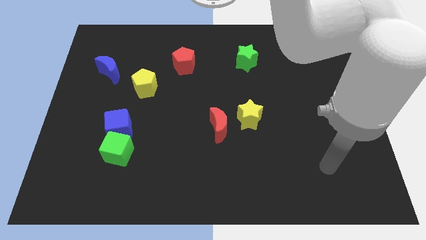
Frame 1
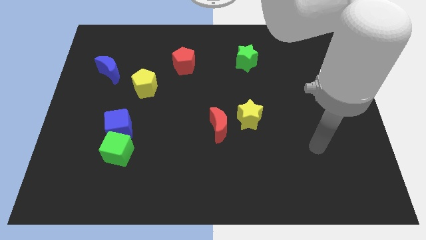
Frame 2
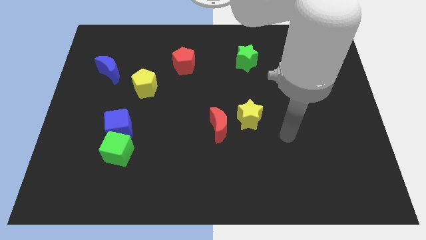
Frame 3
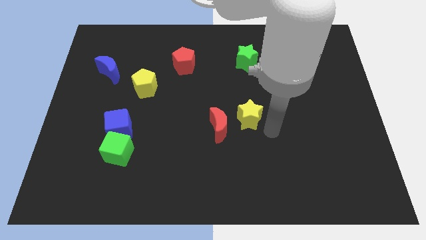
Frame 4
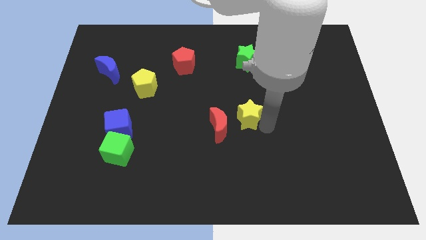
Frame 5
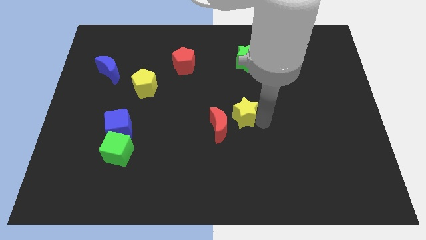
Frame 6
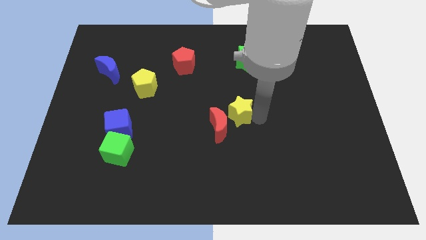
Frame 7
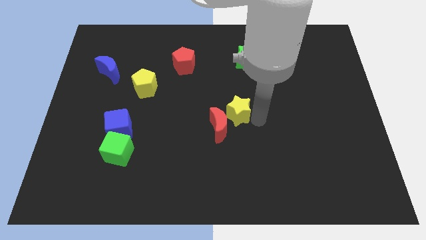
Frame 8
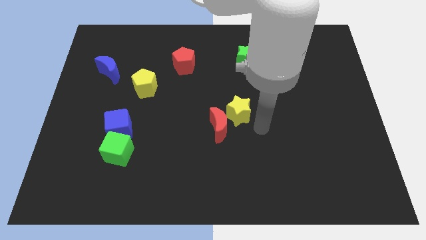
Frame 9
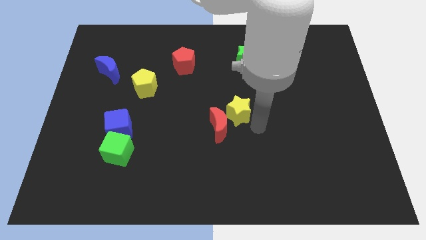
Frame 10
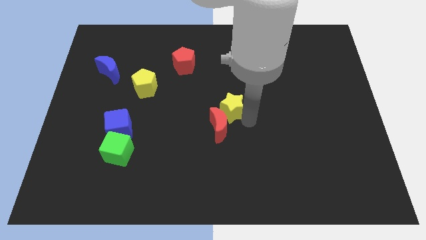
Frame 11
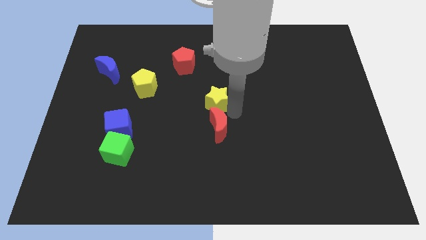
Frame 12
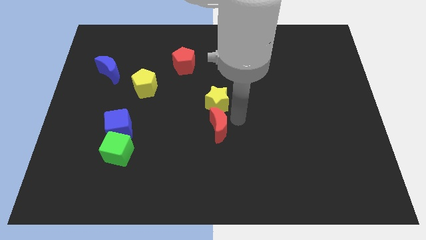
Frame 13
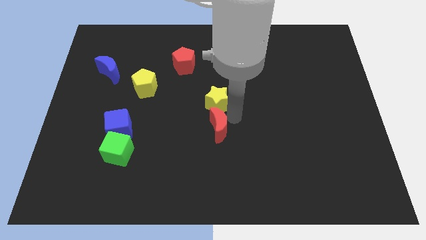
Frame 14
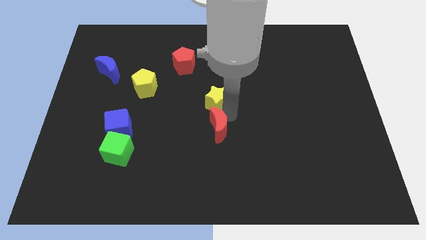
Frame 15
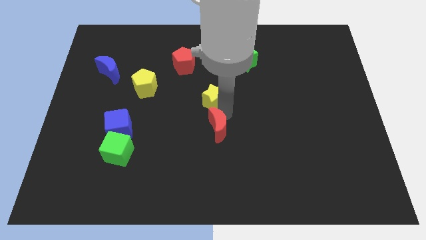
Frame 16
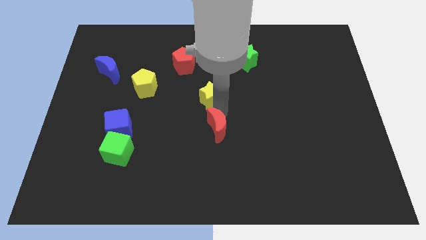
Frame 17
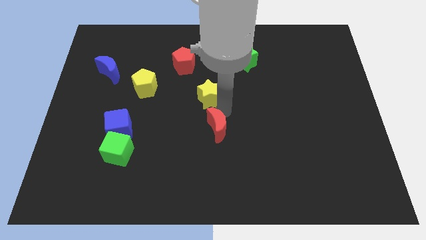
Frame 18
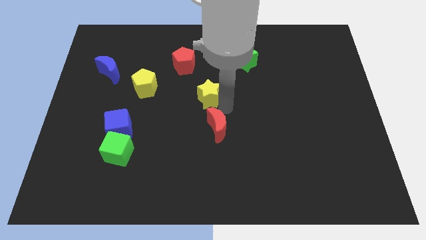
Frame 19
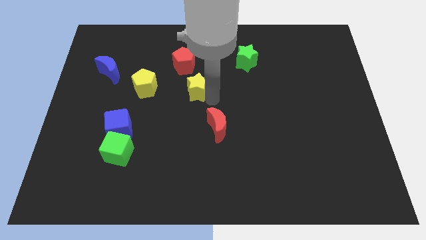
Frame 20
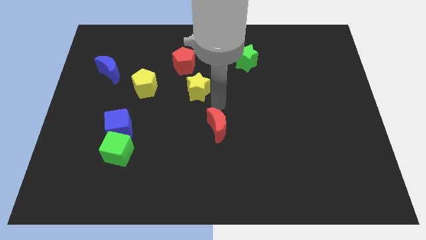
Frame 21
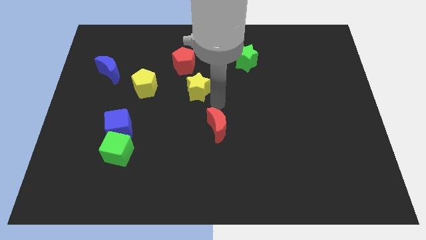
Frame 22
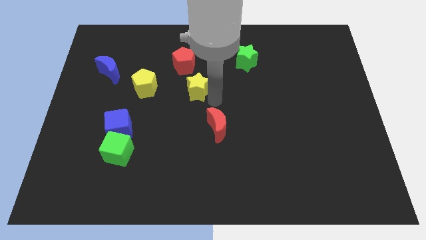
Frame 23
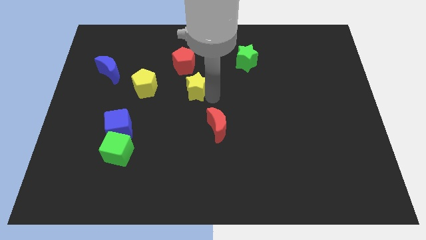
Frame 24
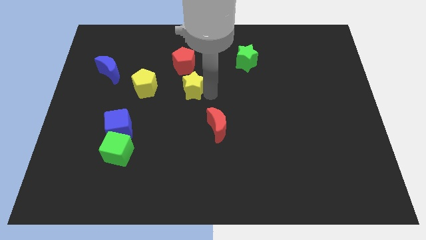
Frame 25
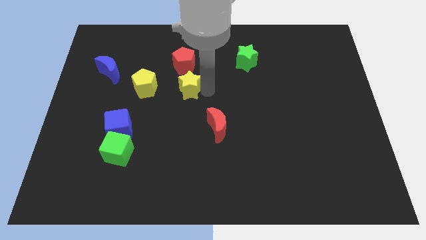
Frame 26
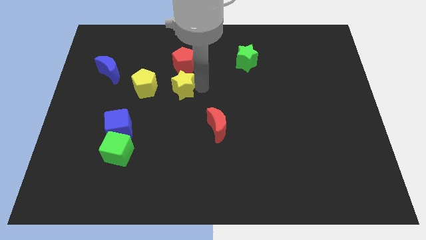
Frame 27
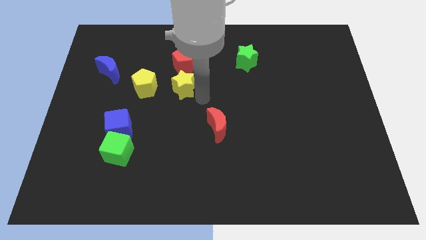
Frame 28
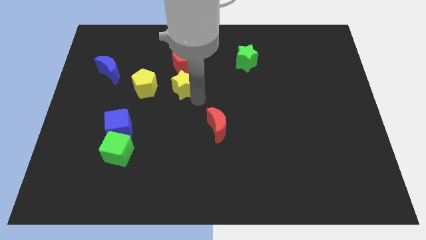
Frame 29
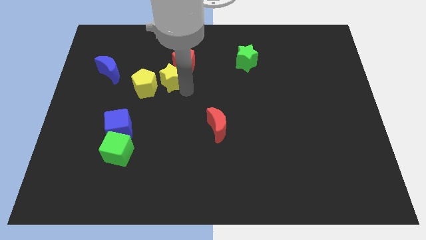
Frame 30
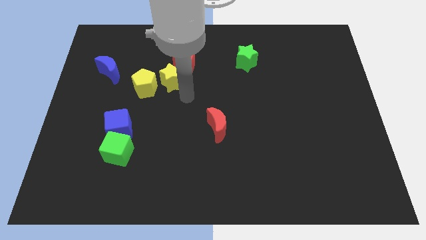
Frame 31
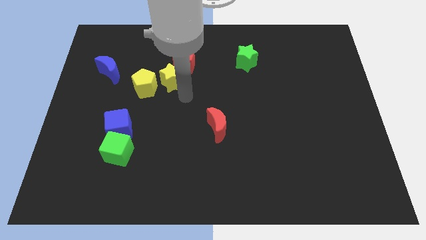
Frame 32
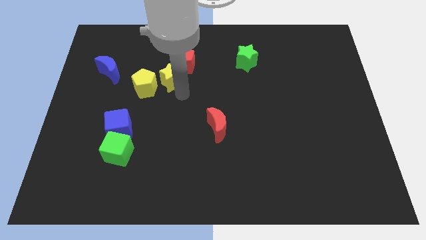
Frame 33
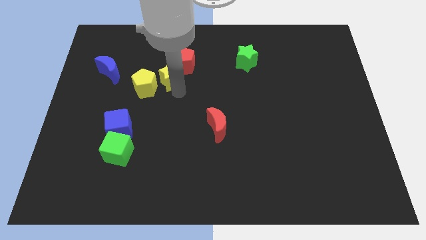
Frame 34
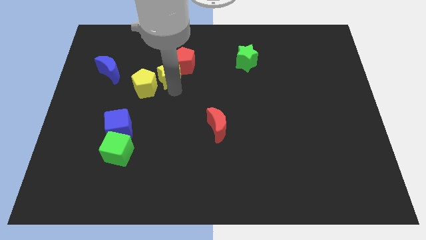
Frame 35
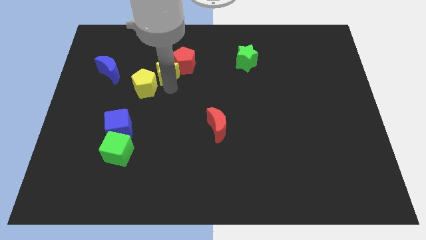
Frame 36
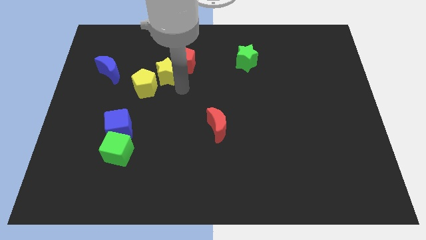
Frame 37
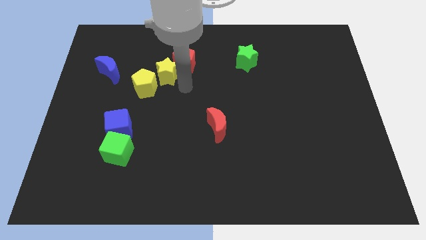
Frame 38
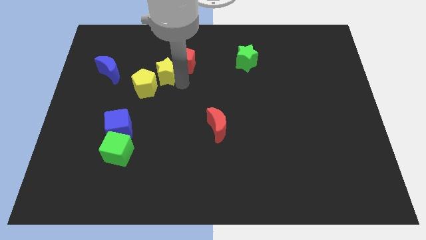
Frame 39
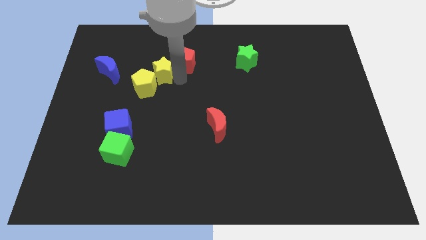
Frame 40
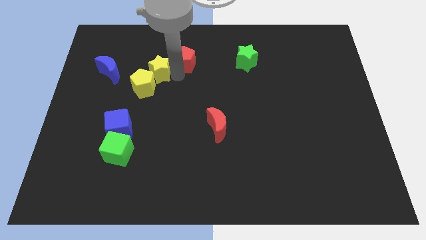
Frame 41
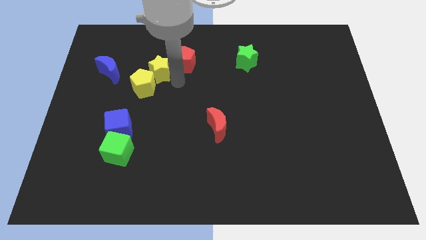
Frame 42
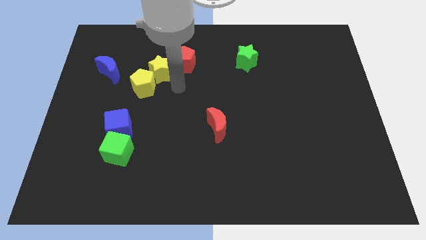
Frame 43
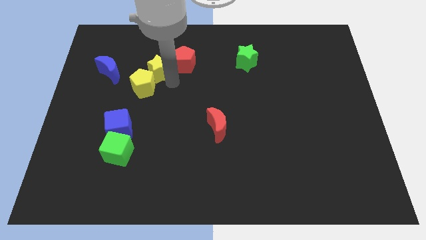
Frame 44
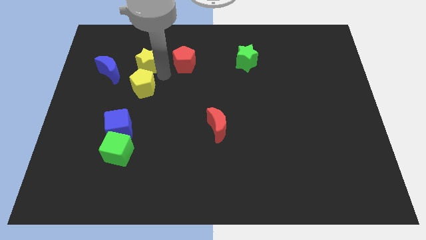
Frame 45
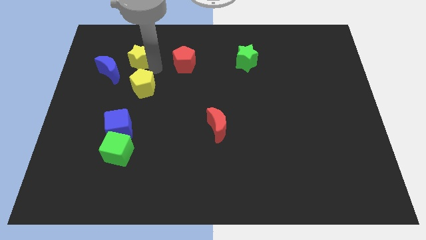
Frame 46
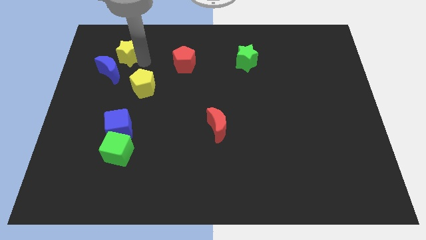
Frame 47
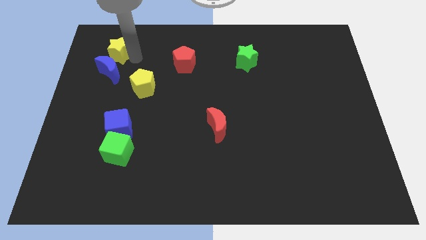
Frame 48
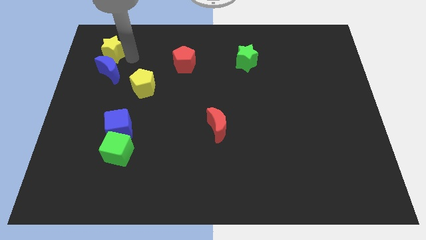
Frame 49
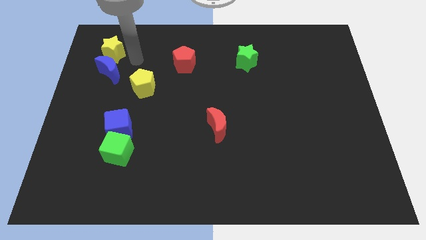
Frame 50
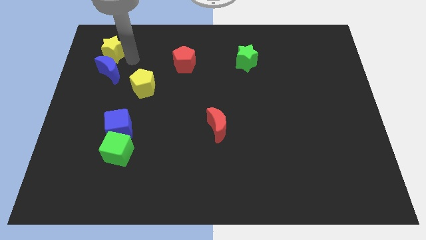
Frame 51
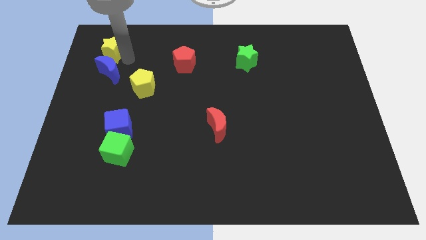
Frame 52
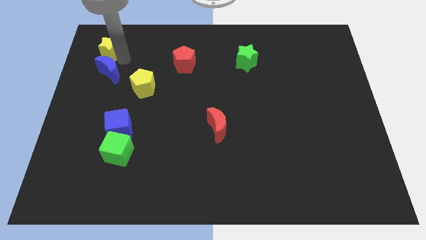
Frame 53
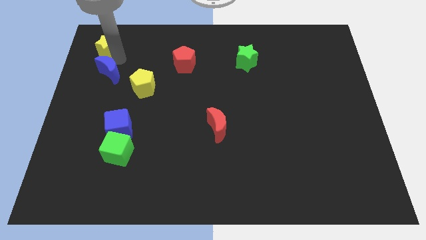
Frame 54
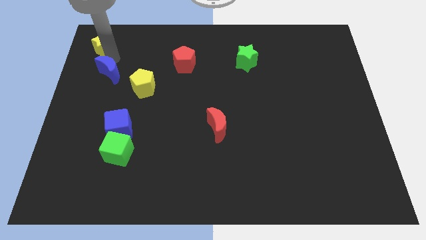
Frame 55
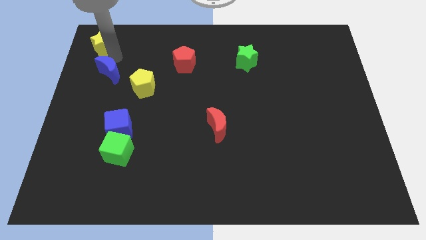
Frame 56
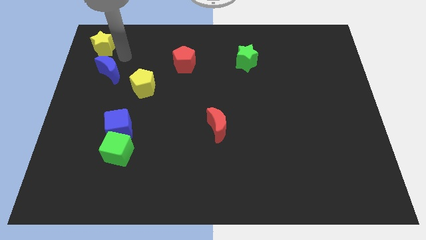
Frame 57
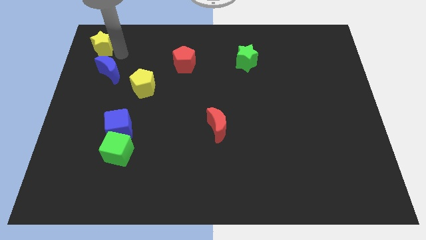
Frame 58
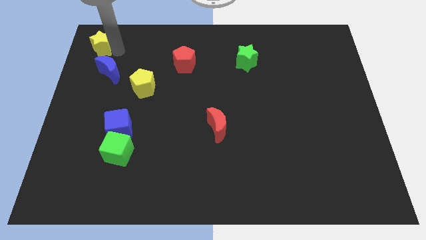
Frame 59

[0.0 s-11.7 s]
push the yellow star to the top left corner

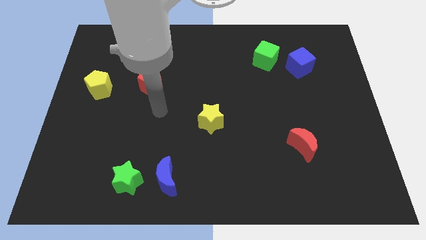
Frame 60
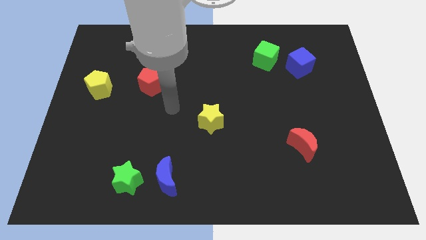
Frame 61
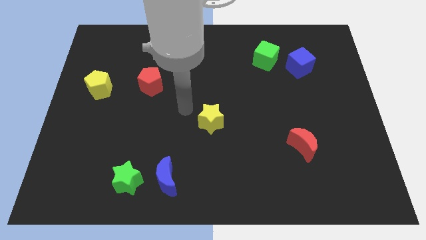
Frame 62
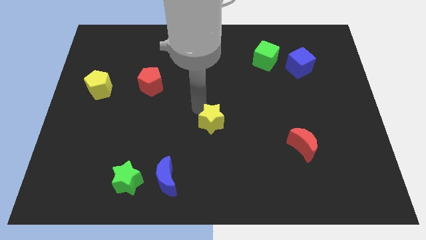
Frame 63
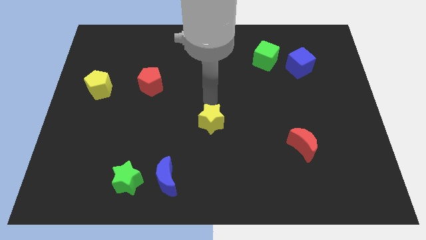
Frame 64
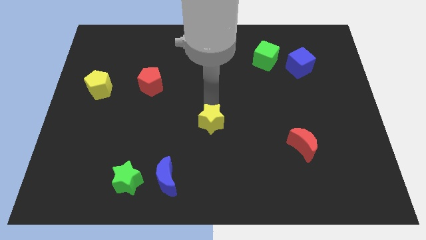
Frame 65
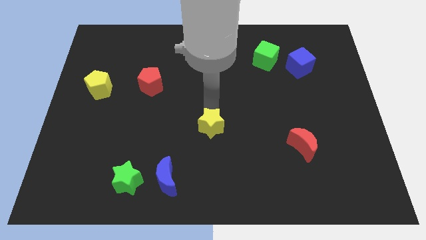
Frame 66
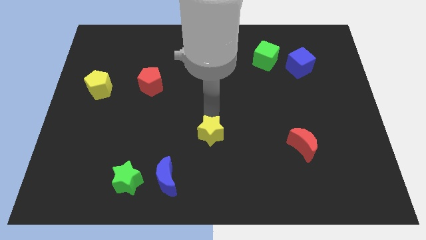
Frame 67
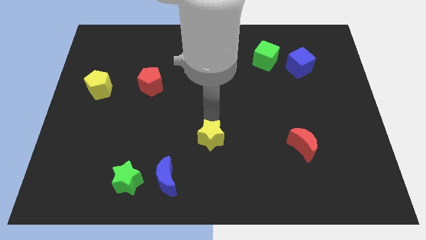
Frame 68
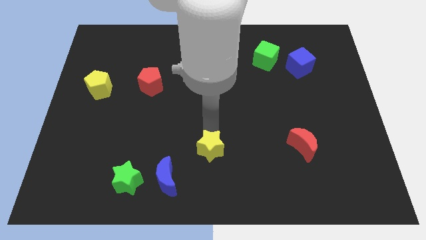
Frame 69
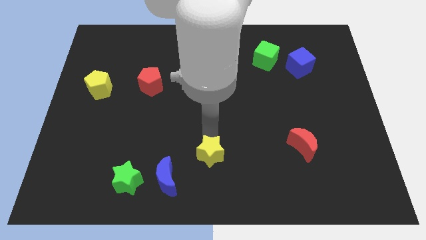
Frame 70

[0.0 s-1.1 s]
slide the yellow star to the bottom side
